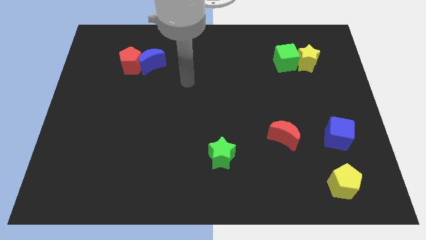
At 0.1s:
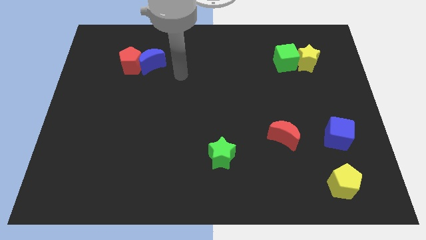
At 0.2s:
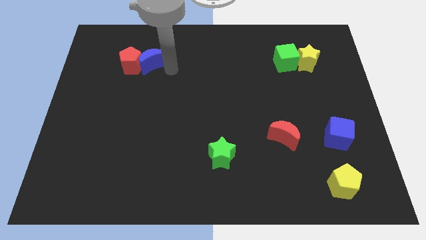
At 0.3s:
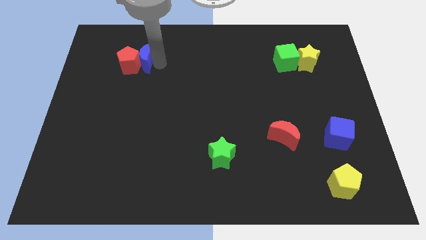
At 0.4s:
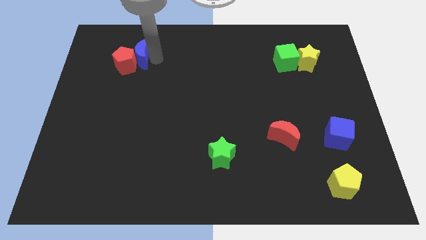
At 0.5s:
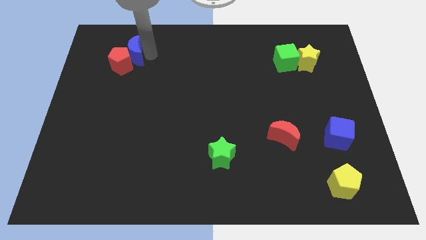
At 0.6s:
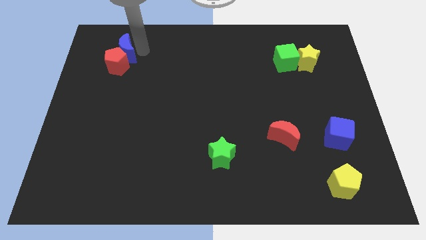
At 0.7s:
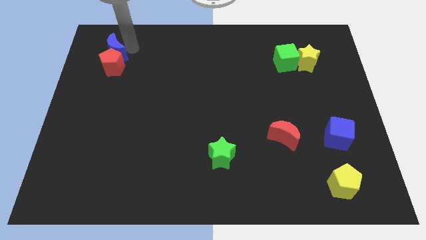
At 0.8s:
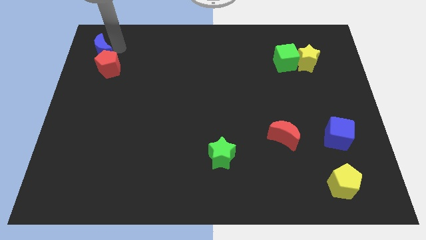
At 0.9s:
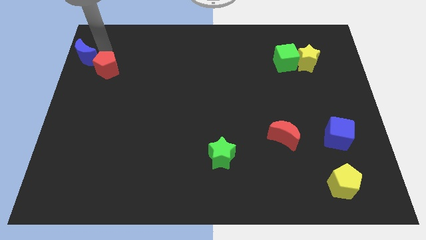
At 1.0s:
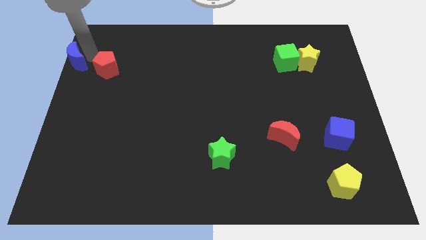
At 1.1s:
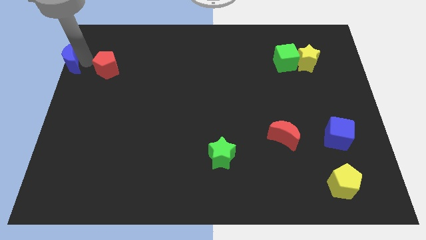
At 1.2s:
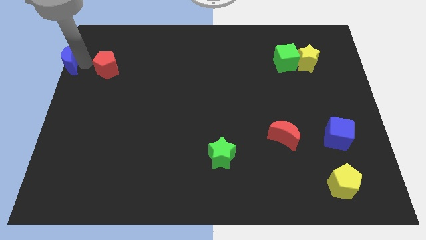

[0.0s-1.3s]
move the red pentagon away from the blue moon

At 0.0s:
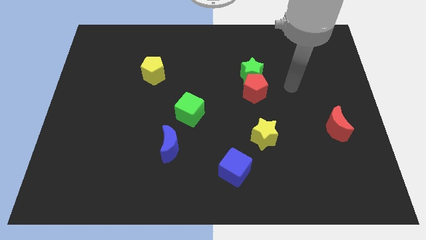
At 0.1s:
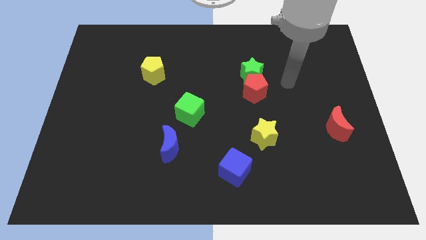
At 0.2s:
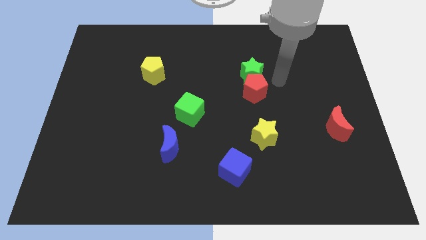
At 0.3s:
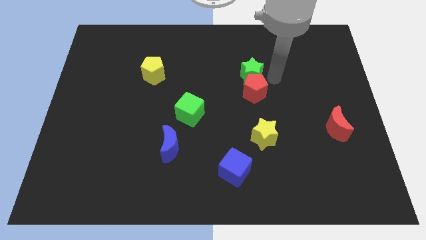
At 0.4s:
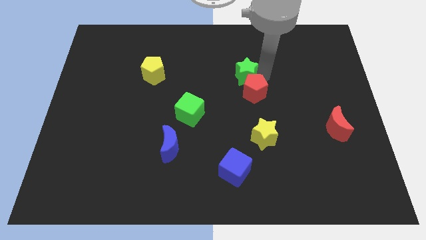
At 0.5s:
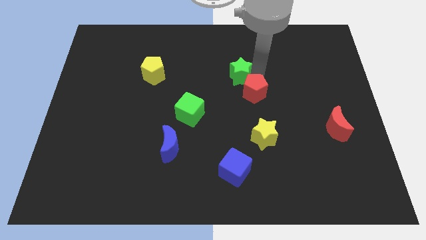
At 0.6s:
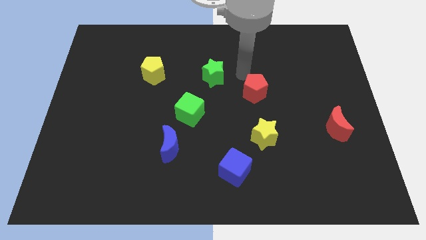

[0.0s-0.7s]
pull the red pentagon apart from the green star

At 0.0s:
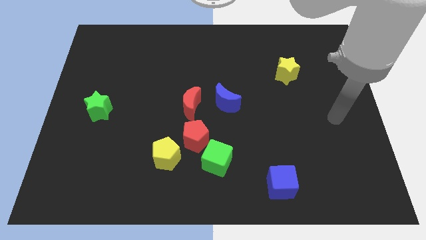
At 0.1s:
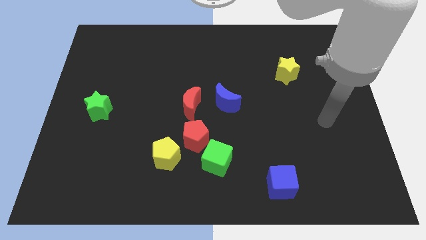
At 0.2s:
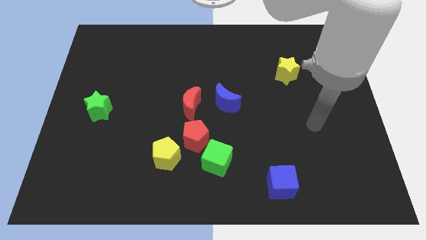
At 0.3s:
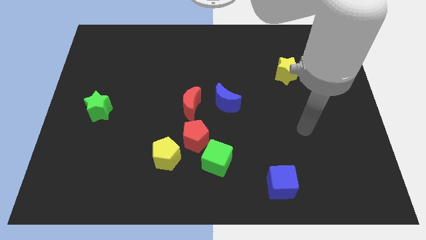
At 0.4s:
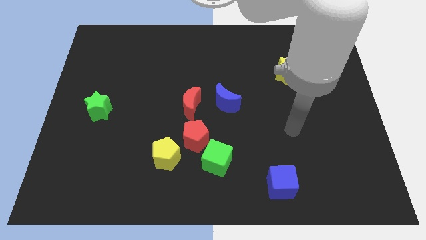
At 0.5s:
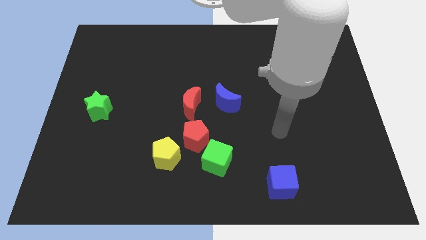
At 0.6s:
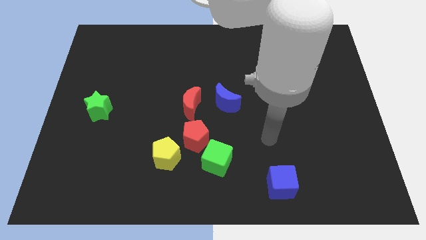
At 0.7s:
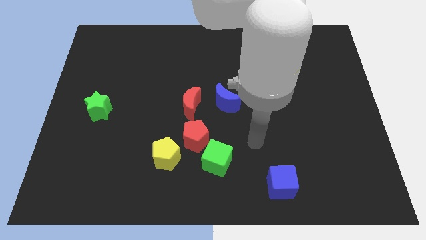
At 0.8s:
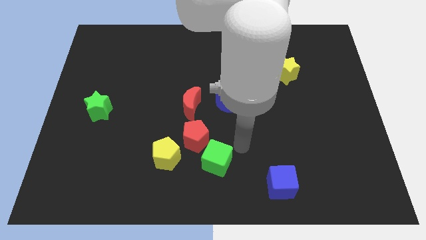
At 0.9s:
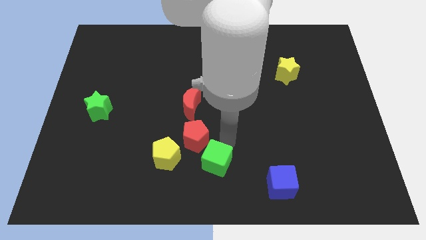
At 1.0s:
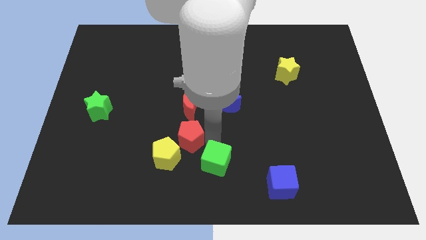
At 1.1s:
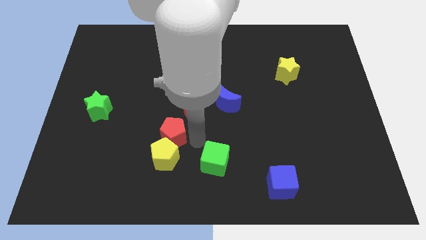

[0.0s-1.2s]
pull the green cube apart from the red pentagon

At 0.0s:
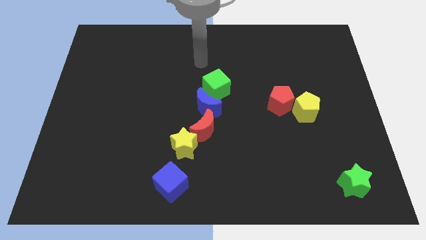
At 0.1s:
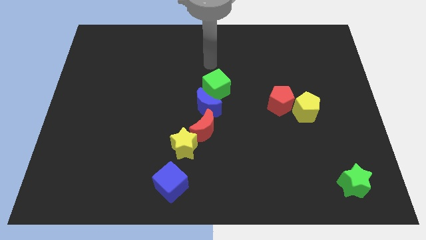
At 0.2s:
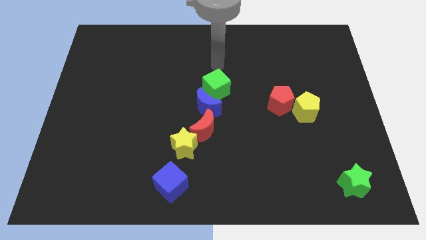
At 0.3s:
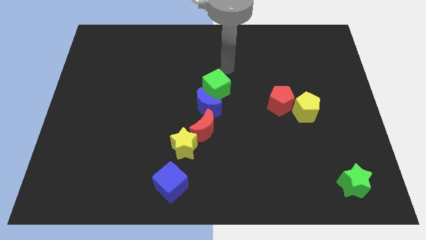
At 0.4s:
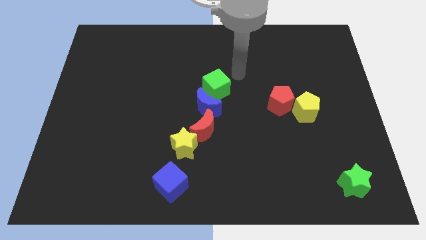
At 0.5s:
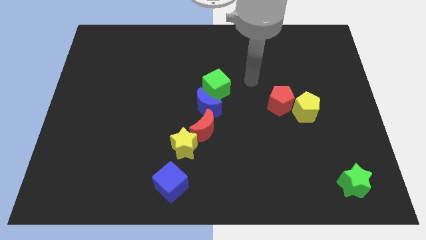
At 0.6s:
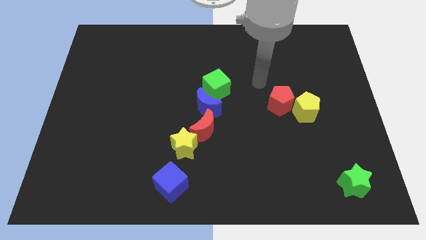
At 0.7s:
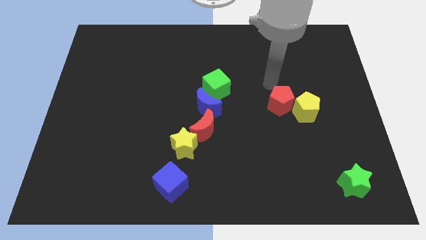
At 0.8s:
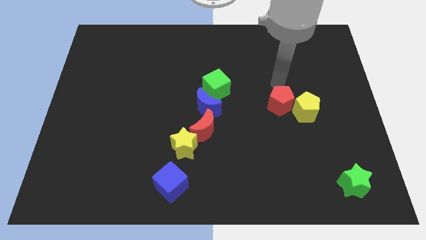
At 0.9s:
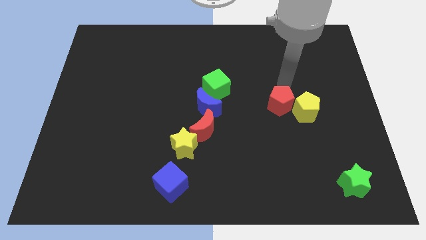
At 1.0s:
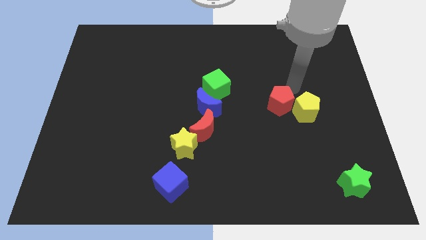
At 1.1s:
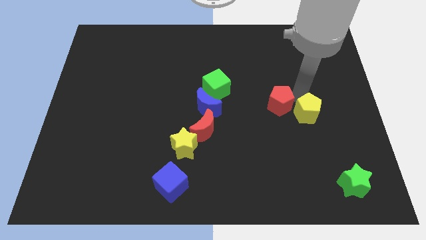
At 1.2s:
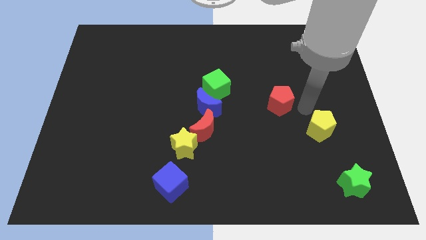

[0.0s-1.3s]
pull the red pentagon apart from the yellow pentagon

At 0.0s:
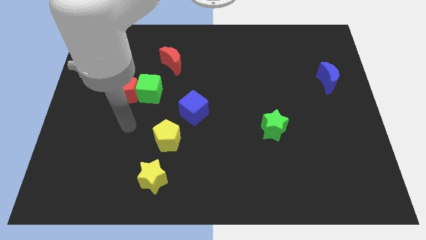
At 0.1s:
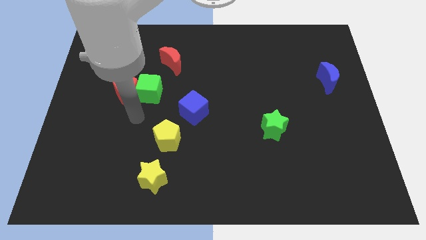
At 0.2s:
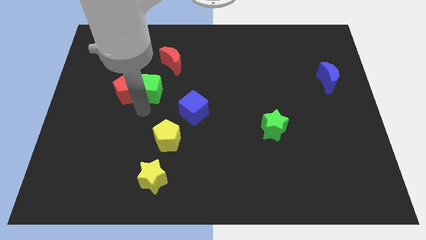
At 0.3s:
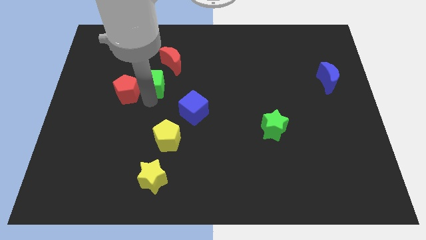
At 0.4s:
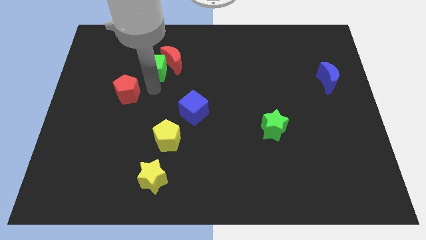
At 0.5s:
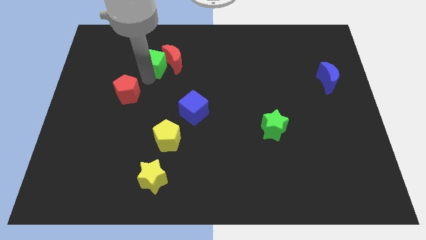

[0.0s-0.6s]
pull the red pentagon apart from the green cube

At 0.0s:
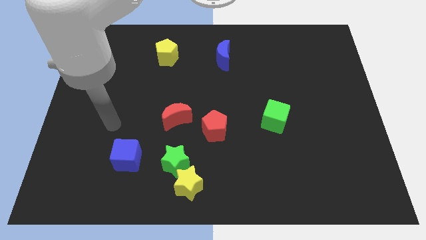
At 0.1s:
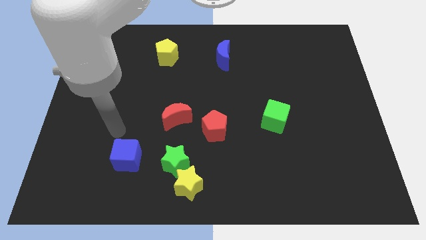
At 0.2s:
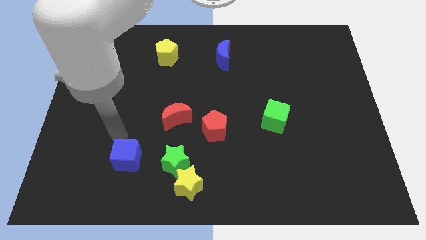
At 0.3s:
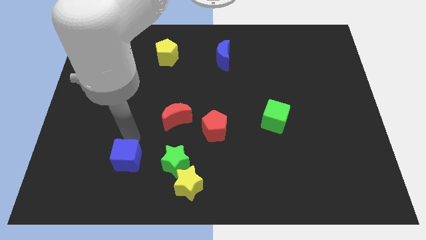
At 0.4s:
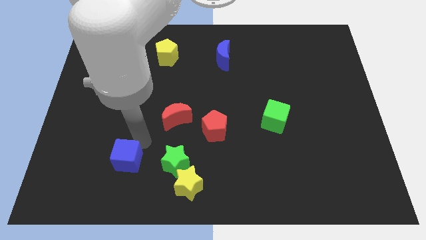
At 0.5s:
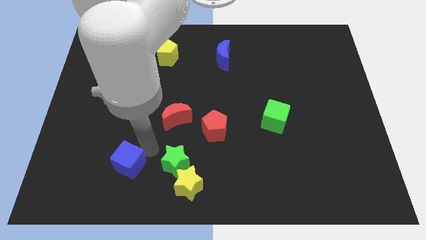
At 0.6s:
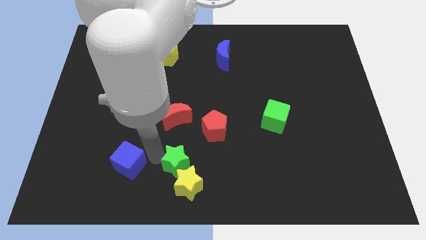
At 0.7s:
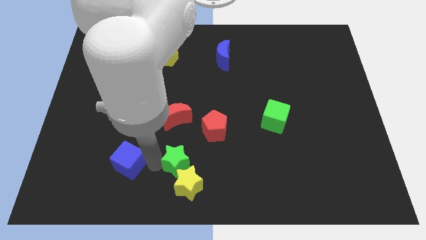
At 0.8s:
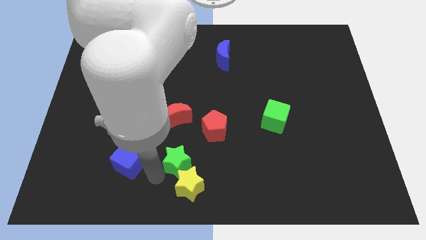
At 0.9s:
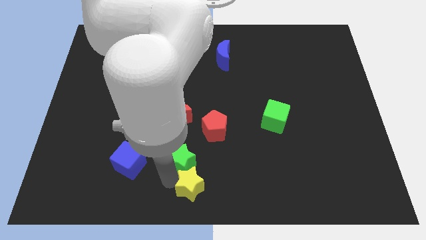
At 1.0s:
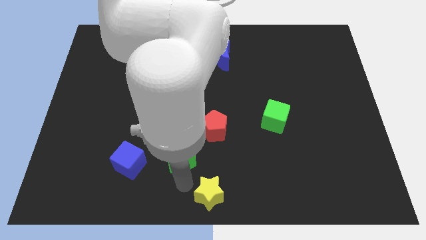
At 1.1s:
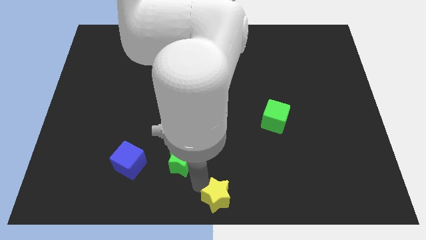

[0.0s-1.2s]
pull the green star apart from the yellow star

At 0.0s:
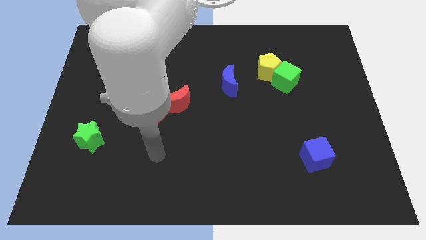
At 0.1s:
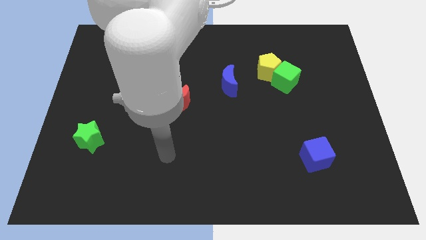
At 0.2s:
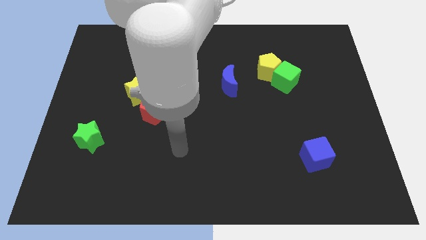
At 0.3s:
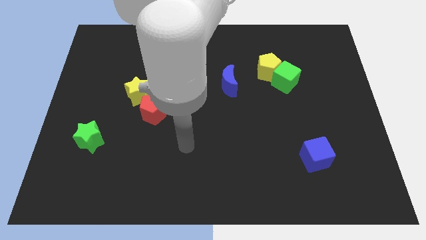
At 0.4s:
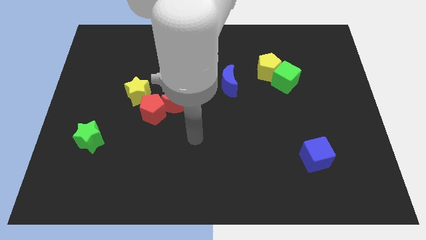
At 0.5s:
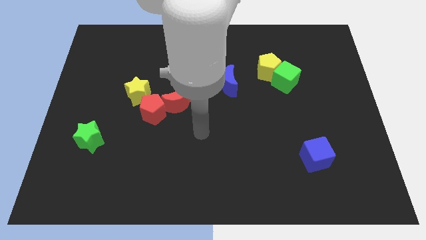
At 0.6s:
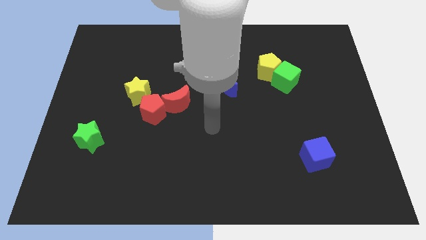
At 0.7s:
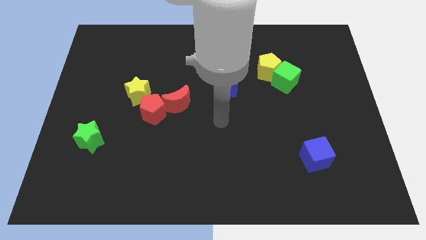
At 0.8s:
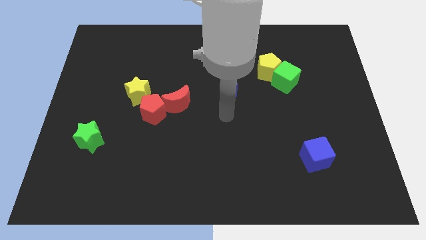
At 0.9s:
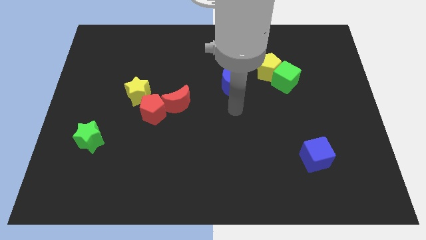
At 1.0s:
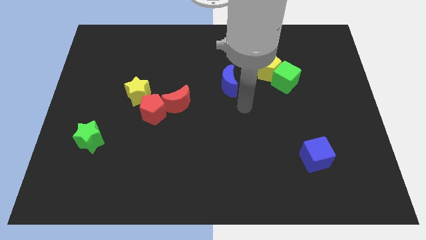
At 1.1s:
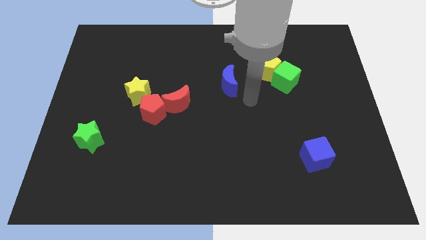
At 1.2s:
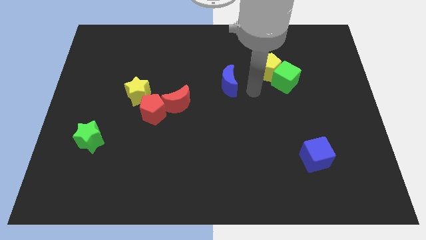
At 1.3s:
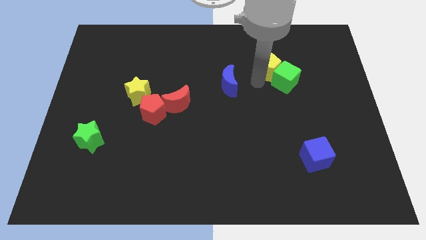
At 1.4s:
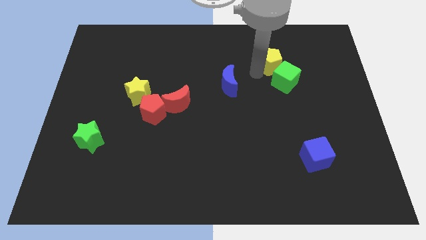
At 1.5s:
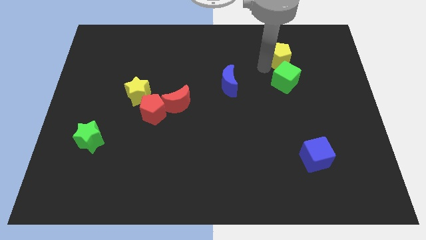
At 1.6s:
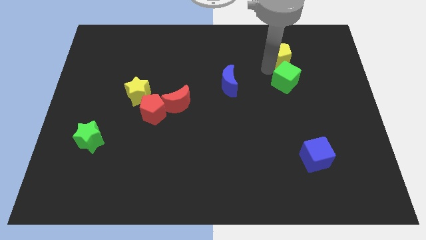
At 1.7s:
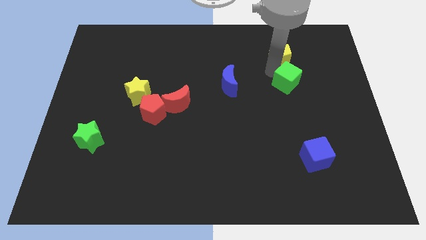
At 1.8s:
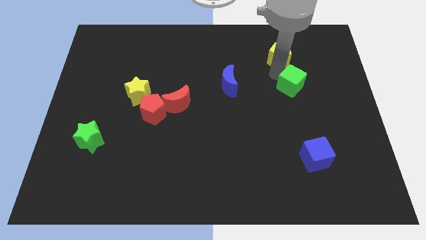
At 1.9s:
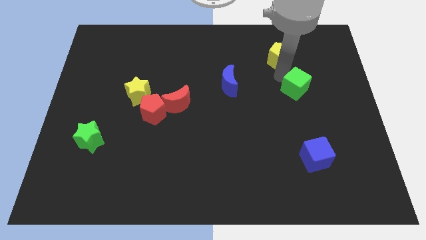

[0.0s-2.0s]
move the green cube away from the yellow pentagon

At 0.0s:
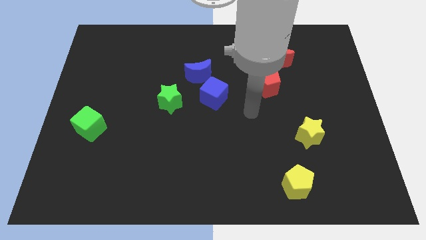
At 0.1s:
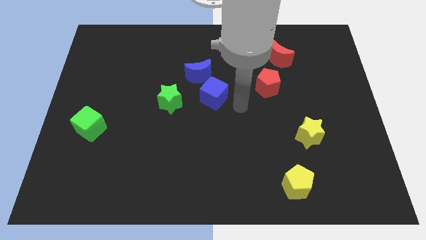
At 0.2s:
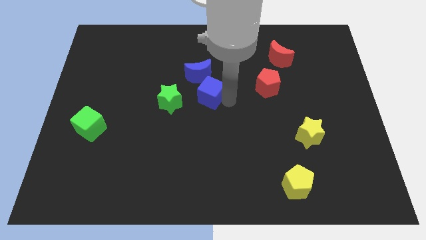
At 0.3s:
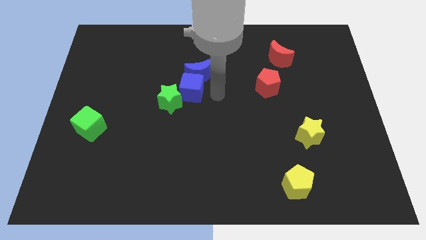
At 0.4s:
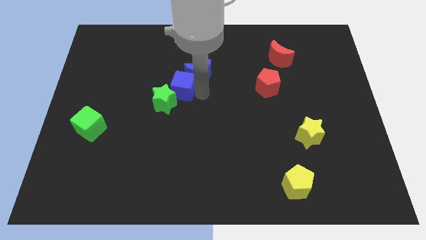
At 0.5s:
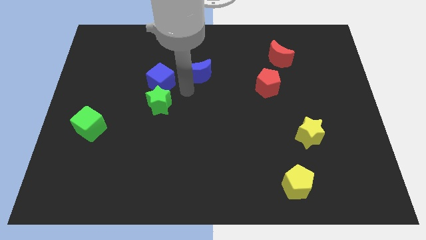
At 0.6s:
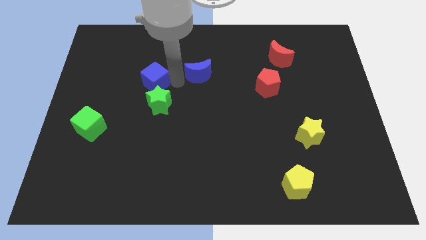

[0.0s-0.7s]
move the blue moon away from the blue cube

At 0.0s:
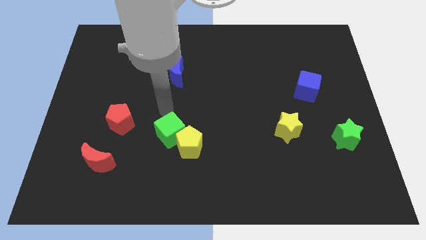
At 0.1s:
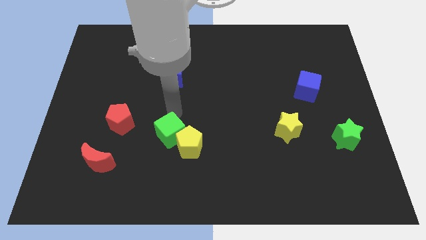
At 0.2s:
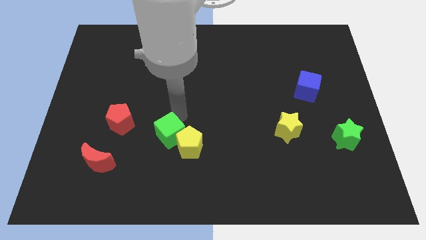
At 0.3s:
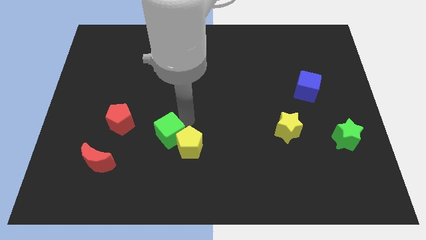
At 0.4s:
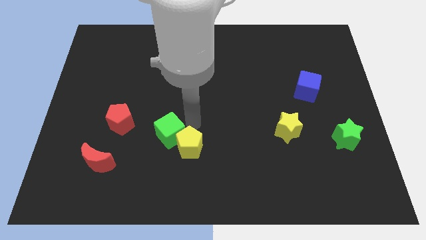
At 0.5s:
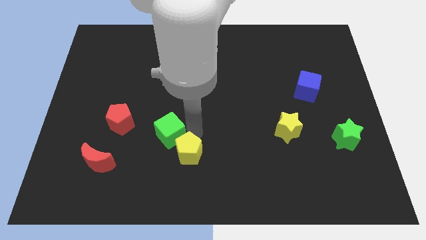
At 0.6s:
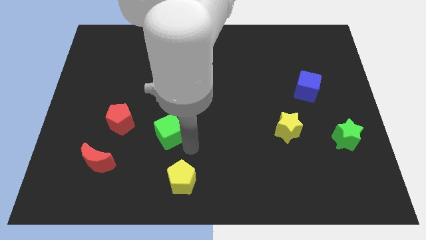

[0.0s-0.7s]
pull the green cube apart from the yellow pentagon
